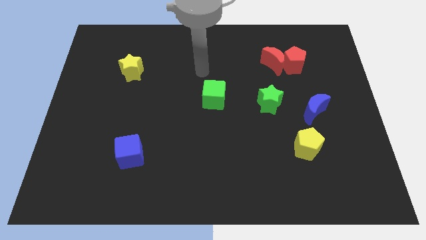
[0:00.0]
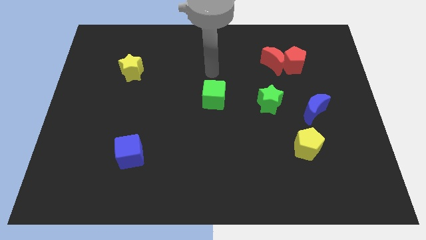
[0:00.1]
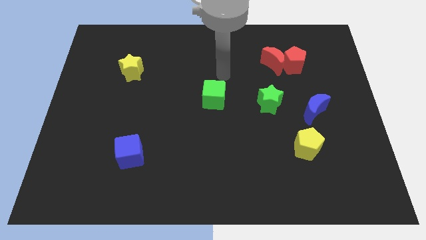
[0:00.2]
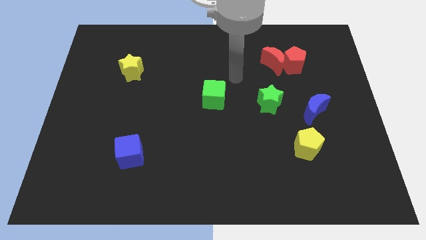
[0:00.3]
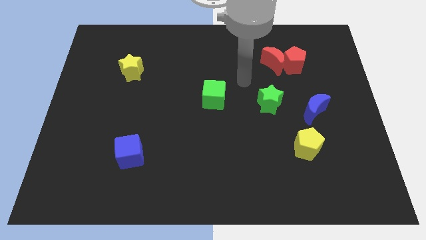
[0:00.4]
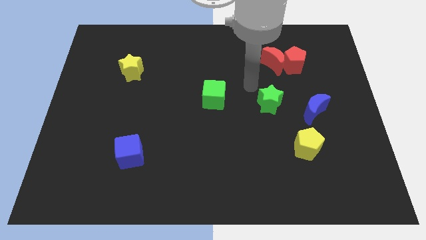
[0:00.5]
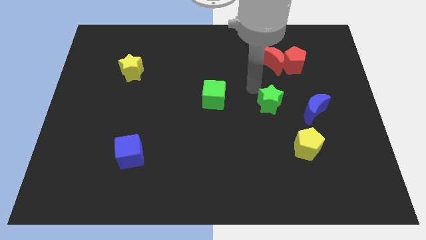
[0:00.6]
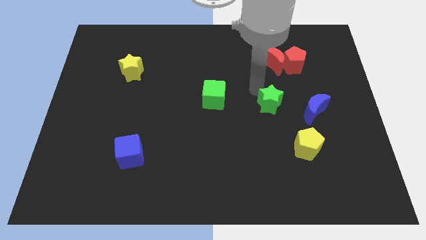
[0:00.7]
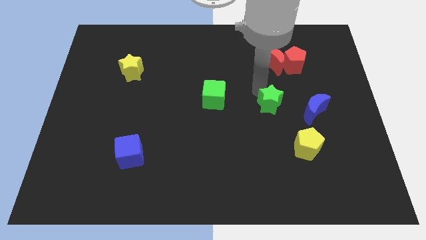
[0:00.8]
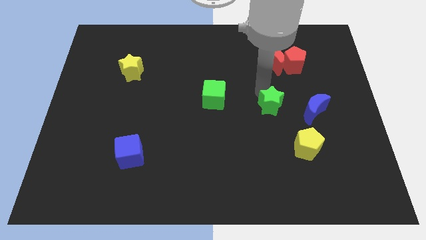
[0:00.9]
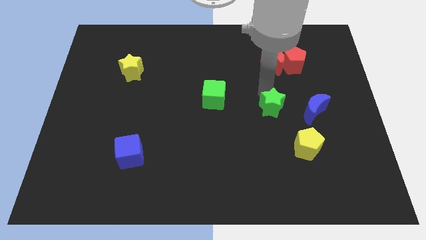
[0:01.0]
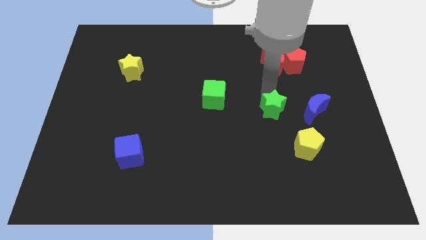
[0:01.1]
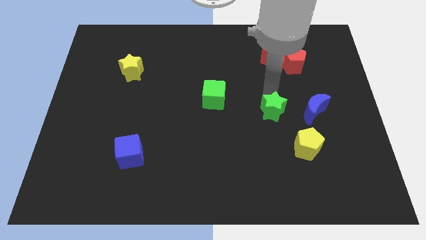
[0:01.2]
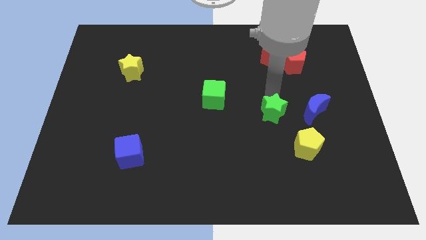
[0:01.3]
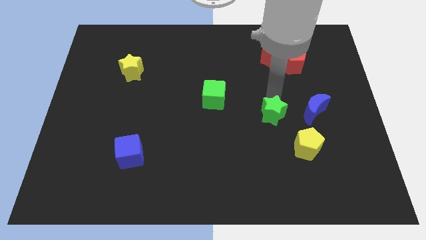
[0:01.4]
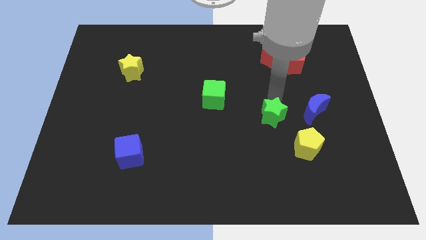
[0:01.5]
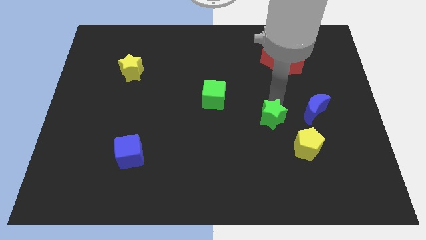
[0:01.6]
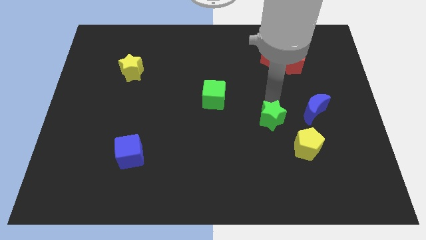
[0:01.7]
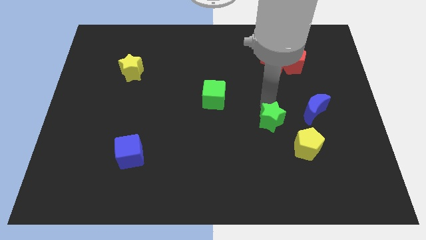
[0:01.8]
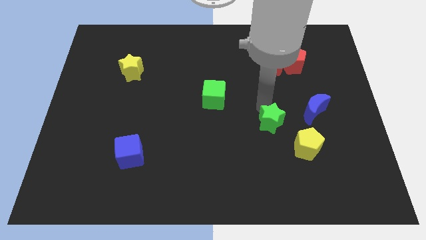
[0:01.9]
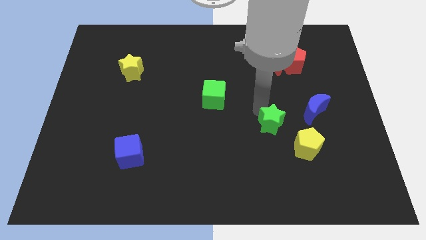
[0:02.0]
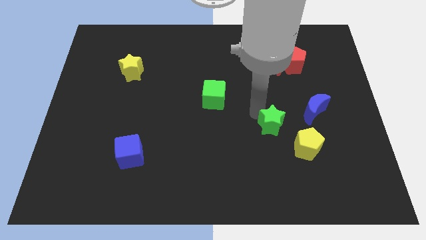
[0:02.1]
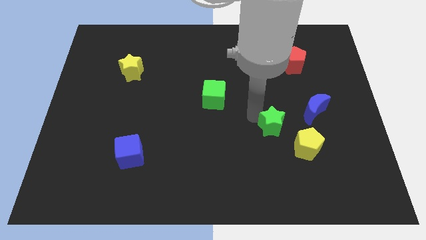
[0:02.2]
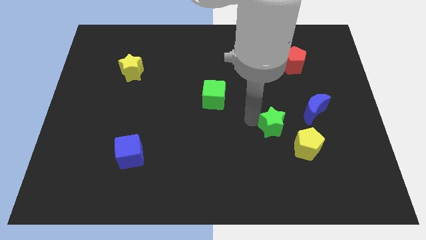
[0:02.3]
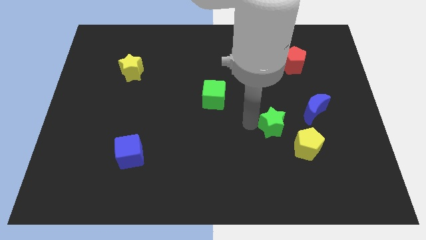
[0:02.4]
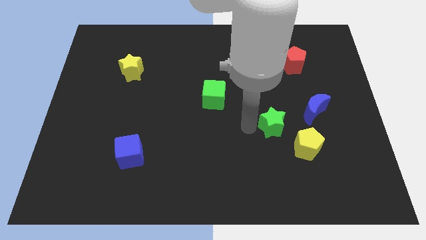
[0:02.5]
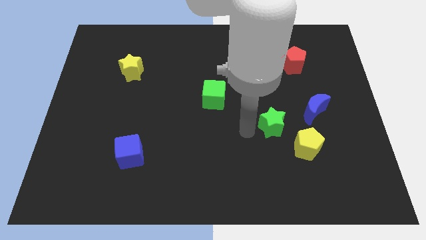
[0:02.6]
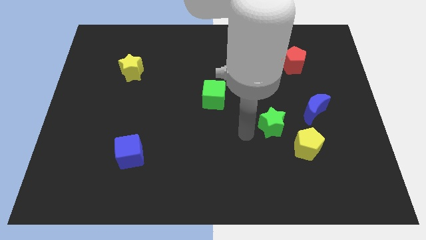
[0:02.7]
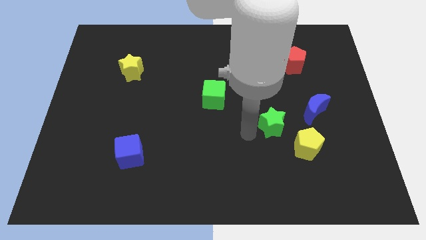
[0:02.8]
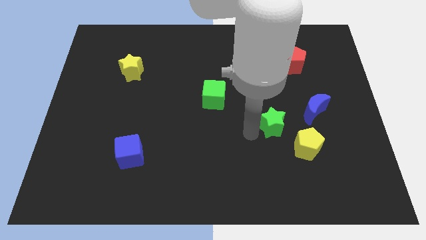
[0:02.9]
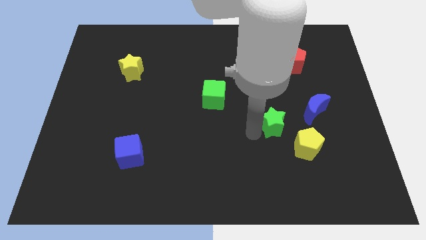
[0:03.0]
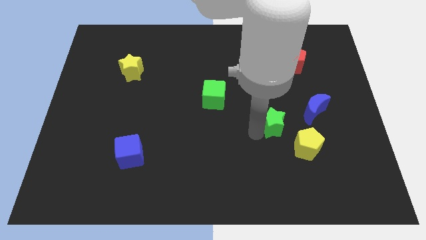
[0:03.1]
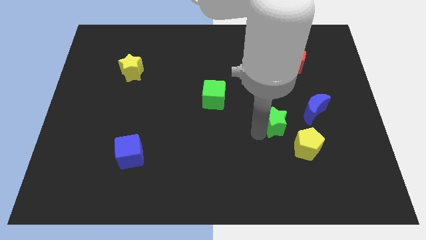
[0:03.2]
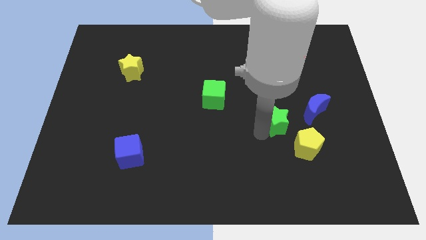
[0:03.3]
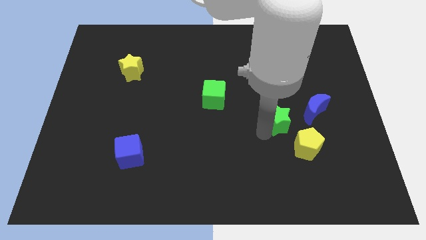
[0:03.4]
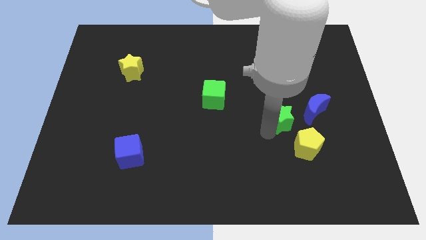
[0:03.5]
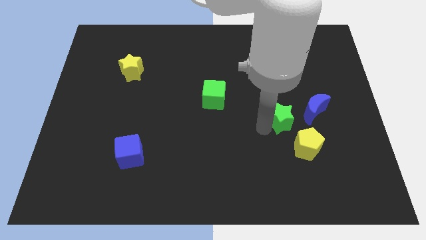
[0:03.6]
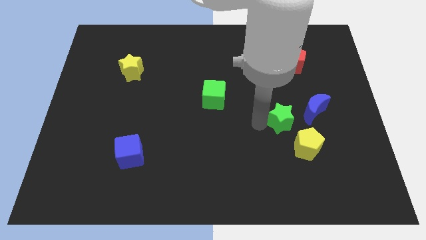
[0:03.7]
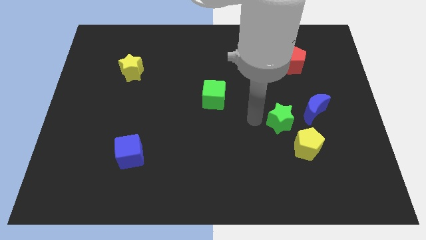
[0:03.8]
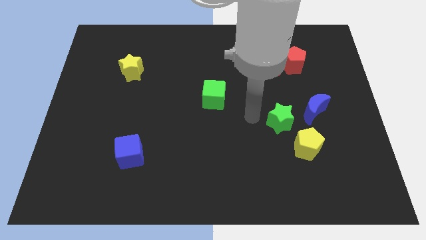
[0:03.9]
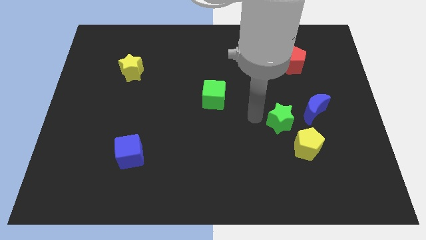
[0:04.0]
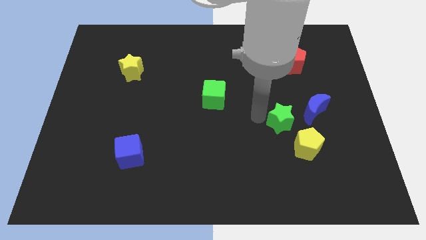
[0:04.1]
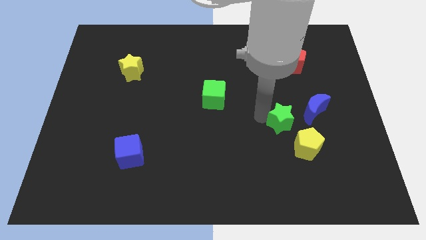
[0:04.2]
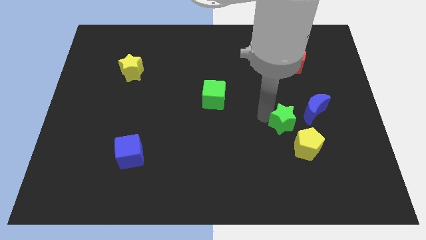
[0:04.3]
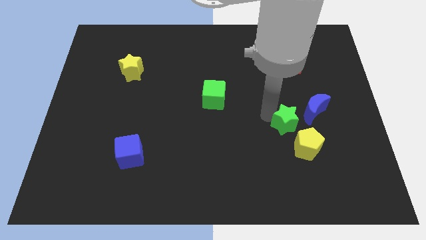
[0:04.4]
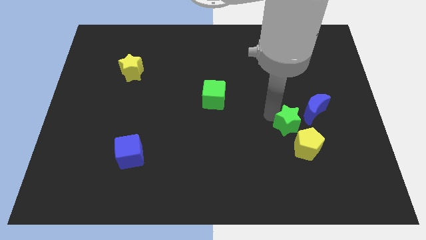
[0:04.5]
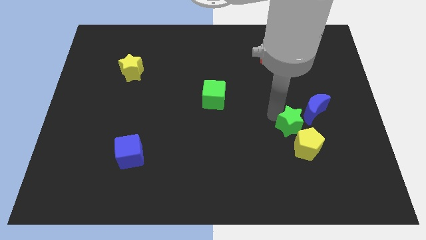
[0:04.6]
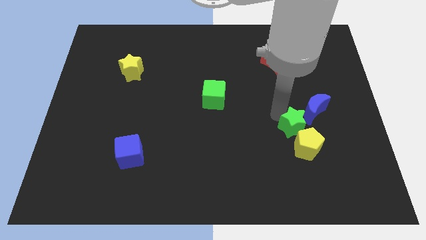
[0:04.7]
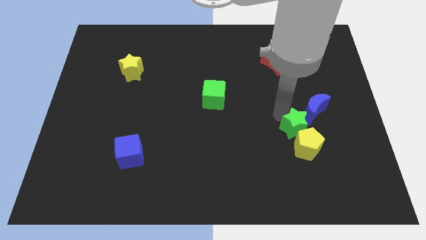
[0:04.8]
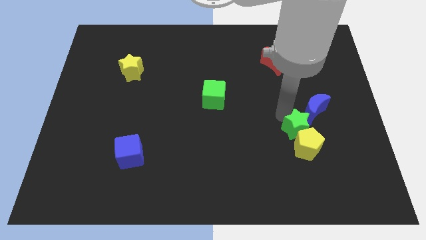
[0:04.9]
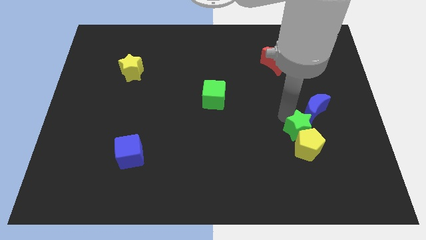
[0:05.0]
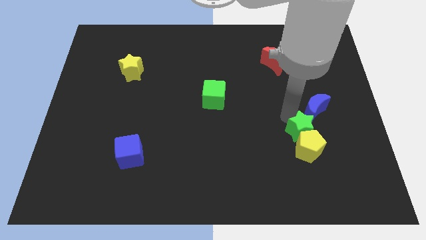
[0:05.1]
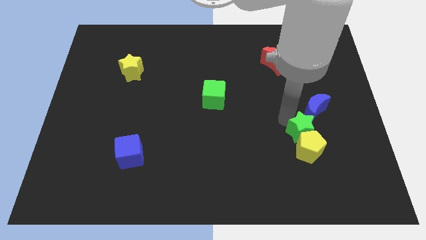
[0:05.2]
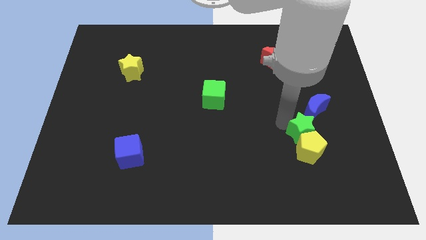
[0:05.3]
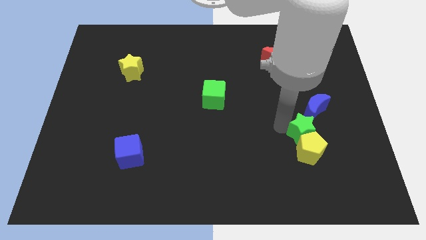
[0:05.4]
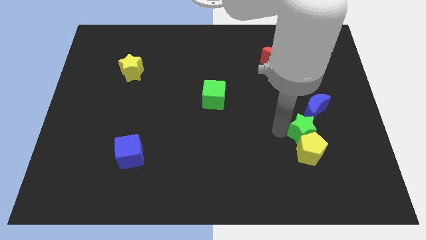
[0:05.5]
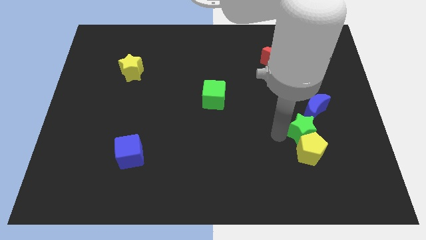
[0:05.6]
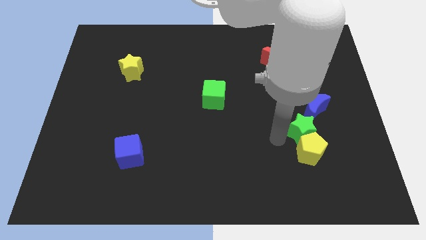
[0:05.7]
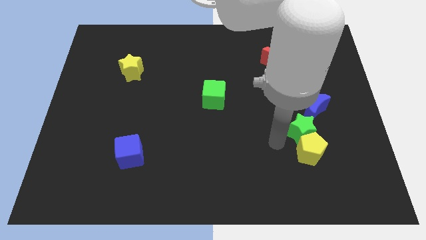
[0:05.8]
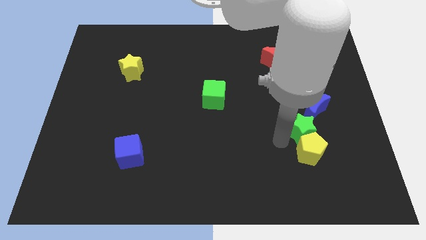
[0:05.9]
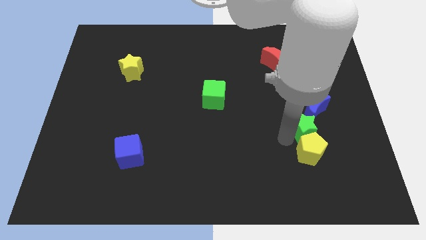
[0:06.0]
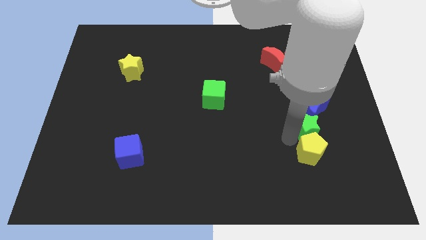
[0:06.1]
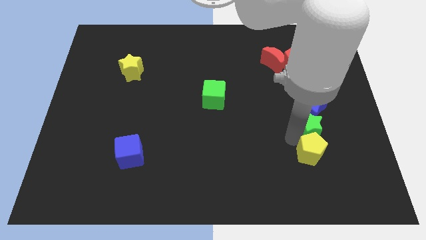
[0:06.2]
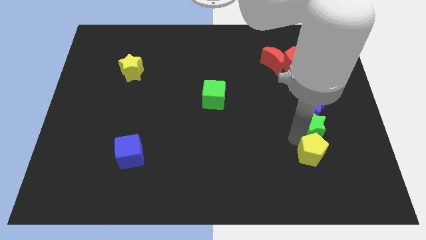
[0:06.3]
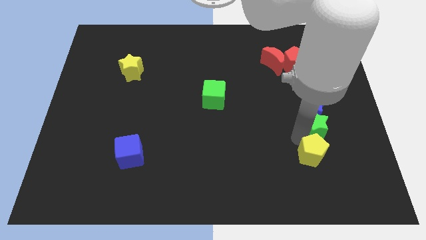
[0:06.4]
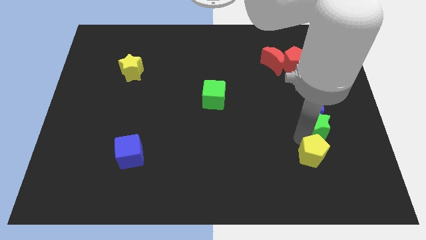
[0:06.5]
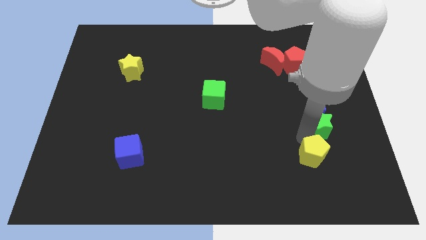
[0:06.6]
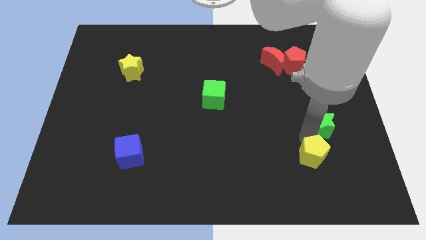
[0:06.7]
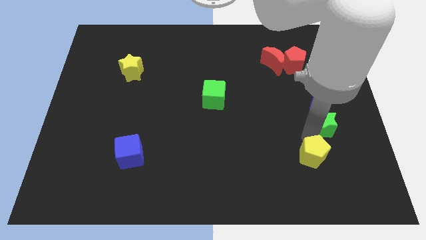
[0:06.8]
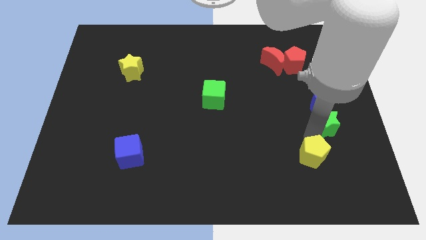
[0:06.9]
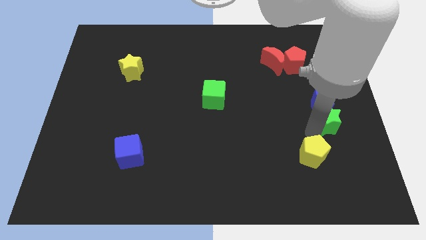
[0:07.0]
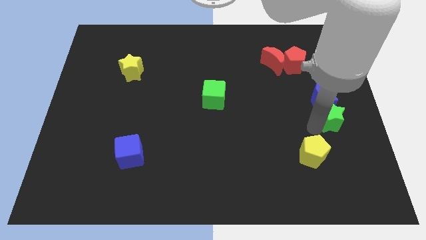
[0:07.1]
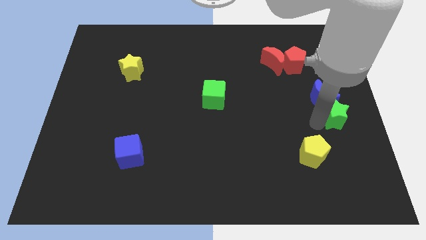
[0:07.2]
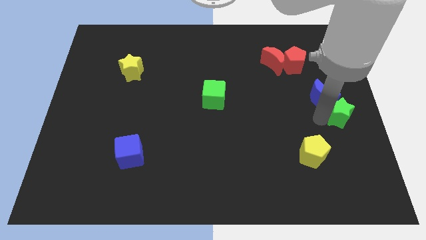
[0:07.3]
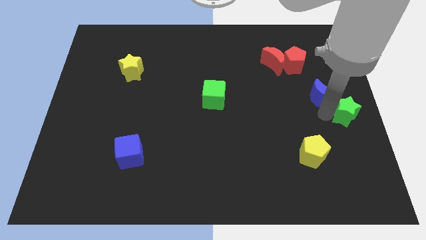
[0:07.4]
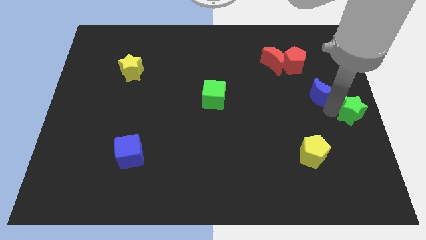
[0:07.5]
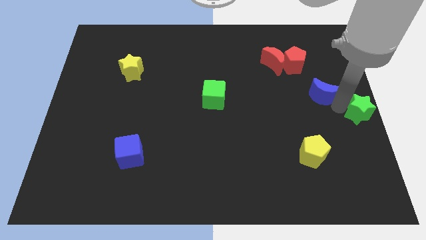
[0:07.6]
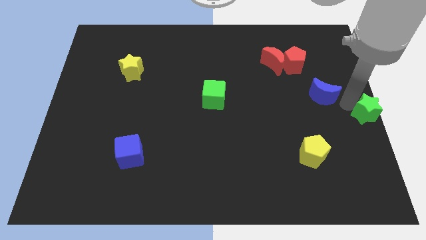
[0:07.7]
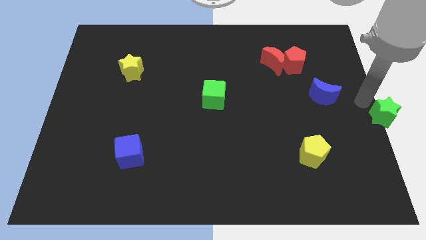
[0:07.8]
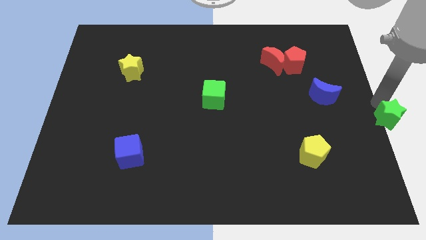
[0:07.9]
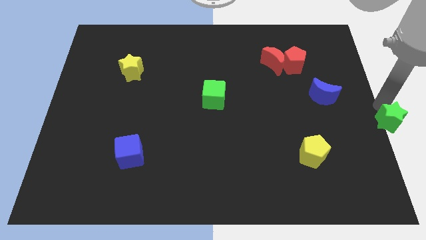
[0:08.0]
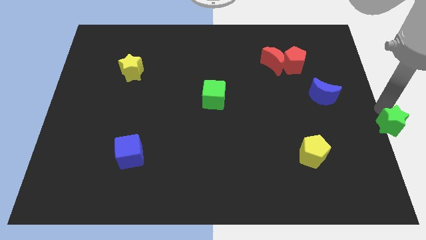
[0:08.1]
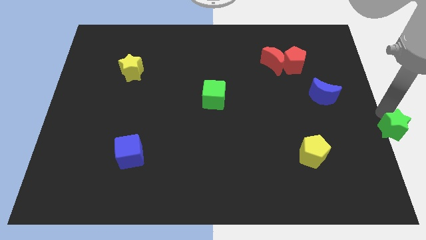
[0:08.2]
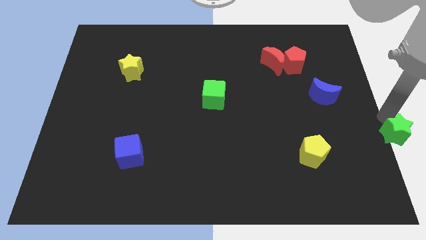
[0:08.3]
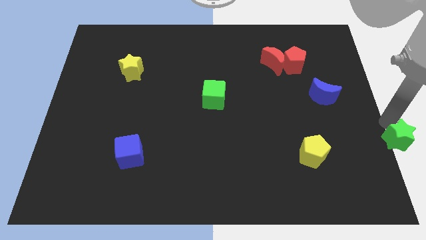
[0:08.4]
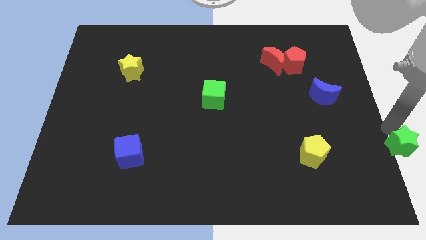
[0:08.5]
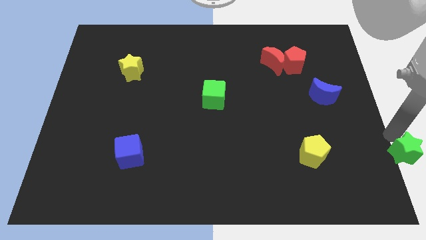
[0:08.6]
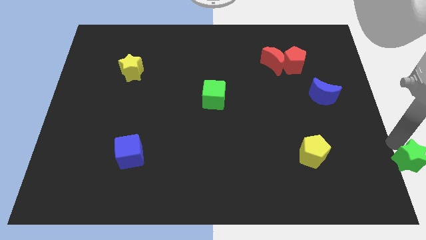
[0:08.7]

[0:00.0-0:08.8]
slide the green star to the bottom right
